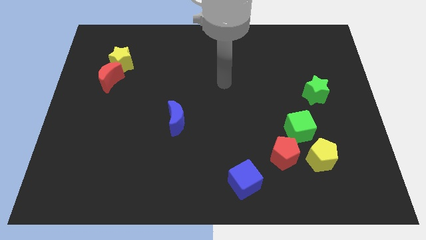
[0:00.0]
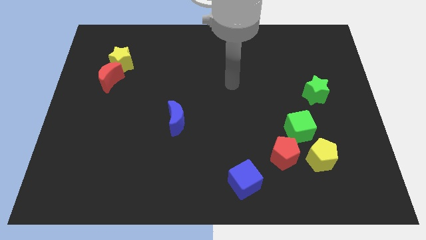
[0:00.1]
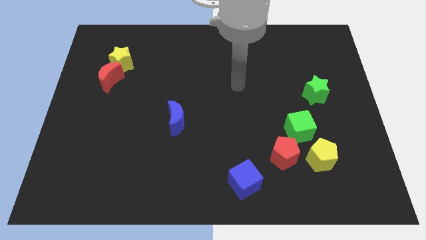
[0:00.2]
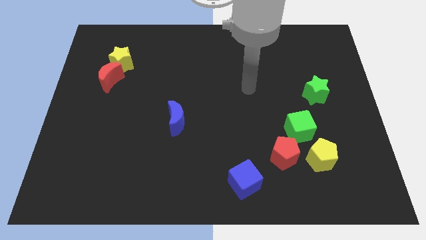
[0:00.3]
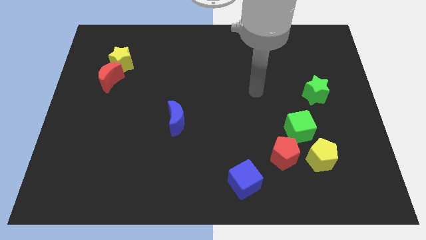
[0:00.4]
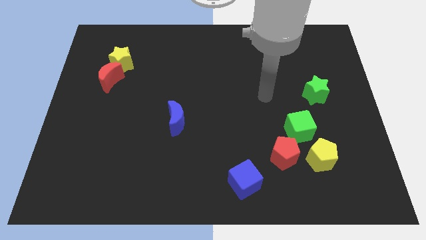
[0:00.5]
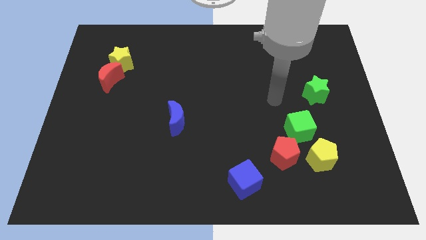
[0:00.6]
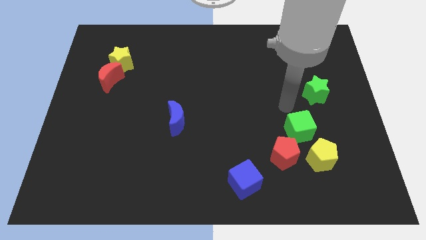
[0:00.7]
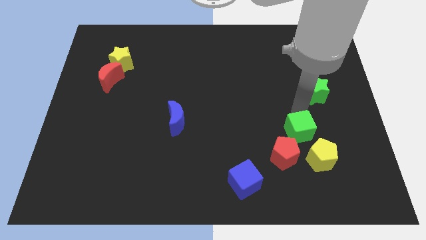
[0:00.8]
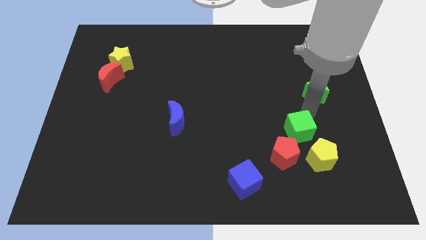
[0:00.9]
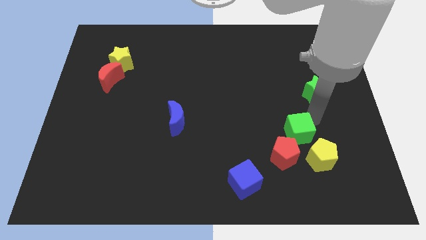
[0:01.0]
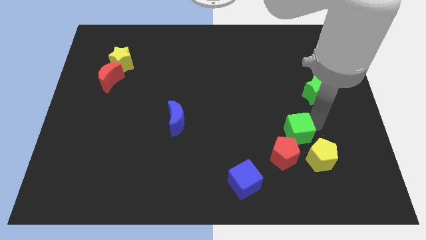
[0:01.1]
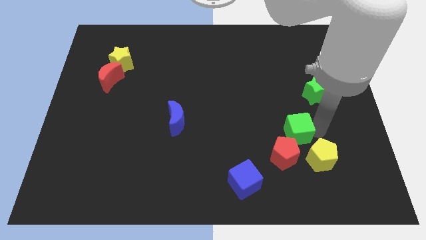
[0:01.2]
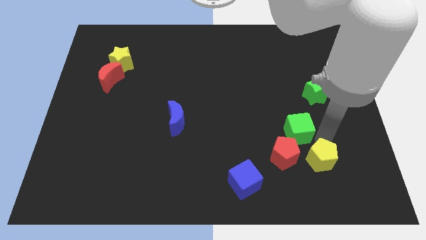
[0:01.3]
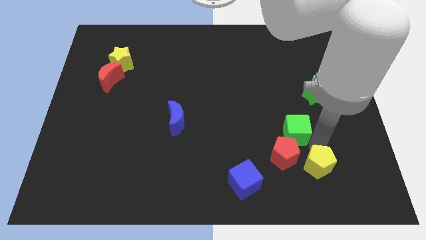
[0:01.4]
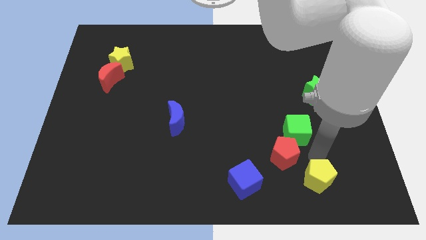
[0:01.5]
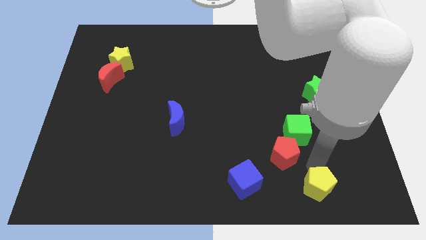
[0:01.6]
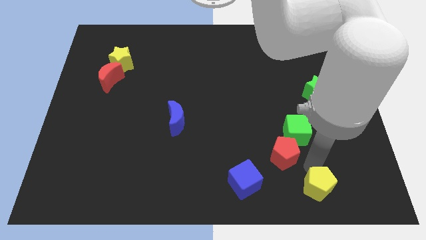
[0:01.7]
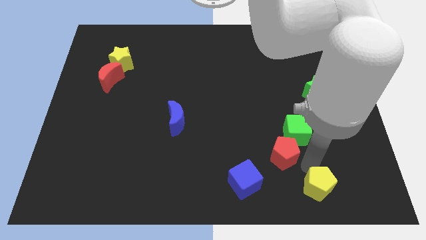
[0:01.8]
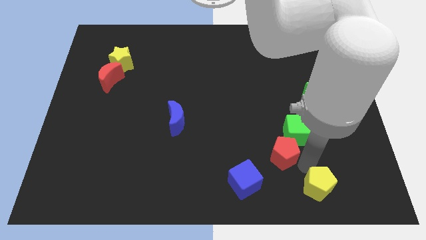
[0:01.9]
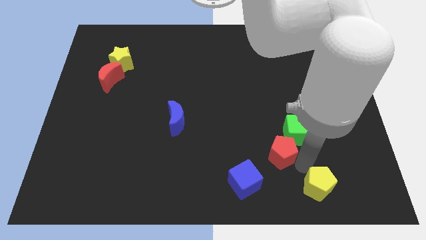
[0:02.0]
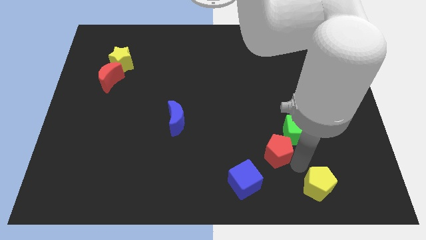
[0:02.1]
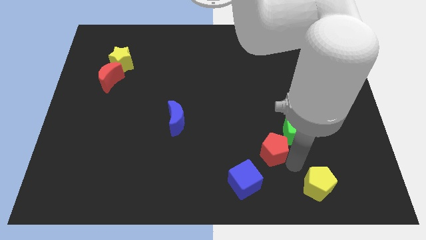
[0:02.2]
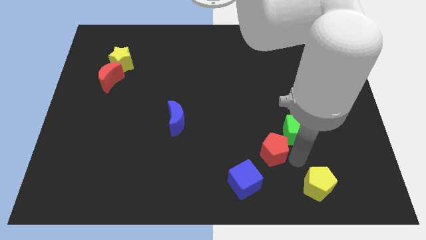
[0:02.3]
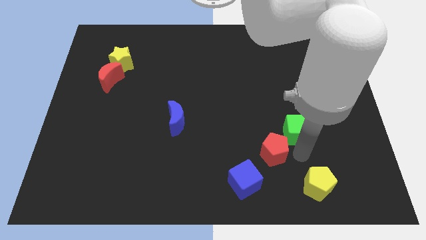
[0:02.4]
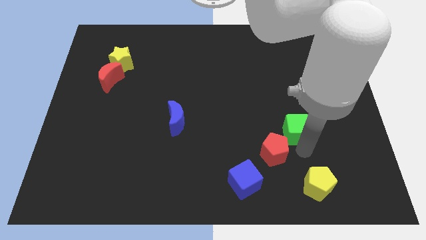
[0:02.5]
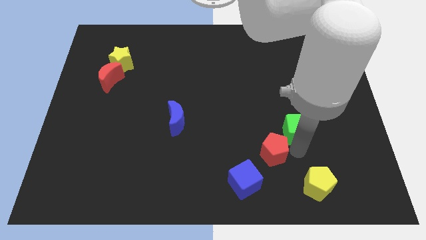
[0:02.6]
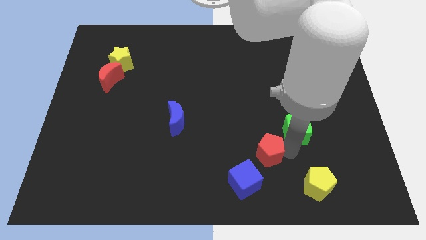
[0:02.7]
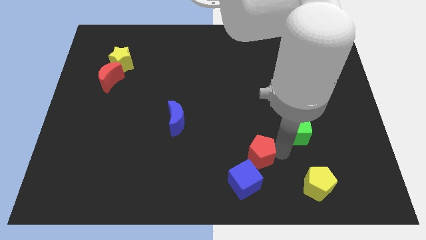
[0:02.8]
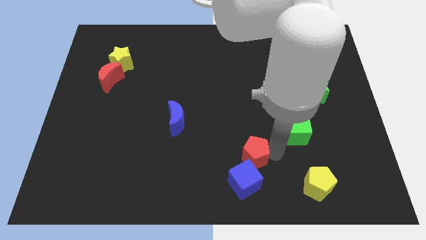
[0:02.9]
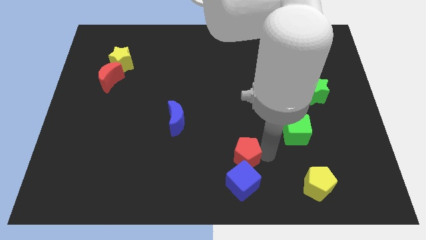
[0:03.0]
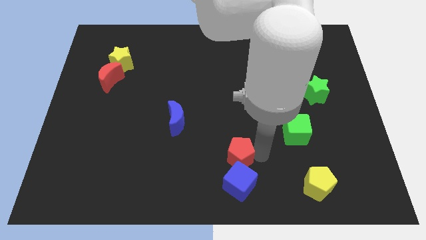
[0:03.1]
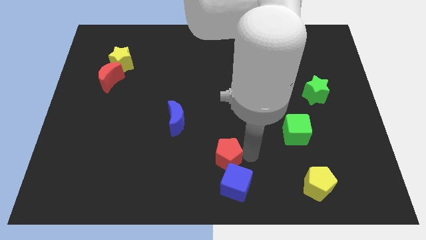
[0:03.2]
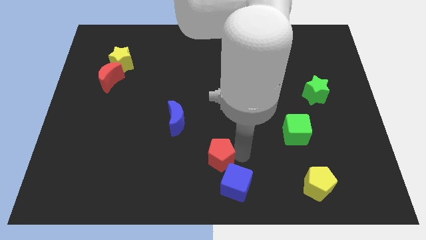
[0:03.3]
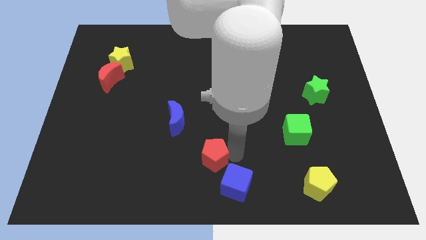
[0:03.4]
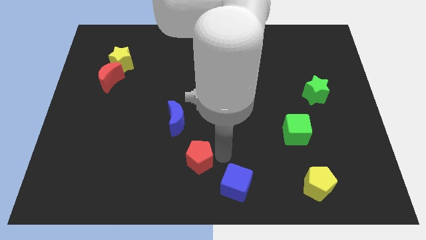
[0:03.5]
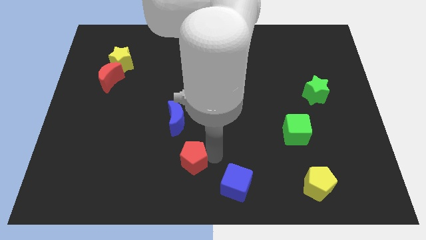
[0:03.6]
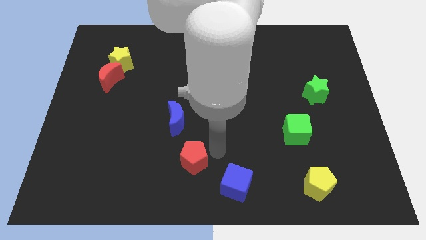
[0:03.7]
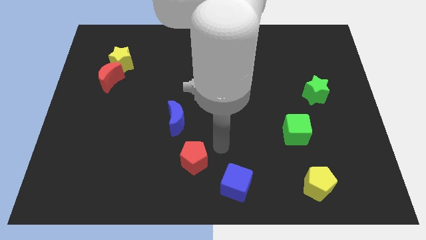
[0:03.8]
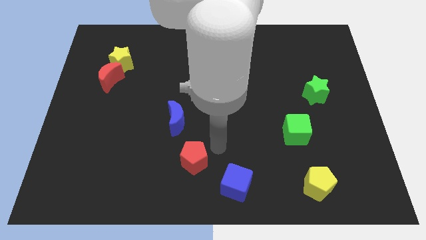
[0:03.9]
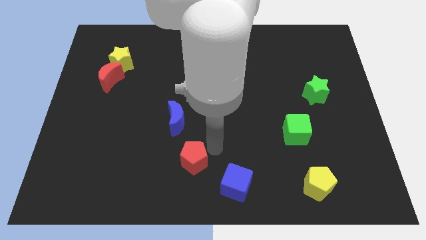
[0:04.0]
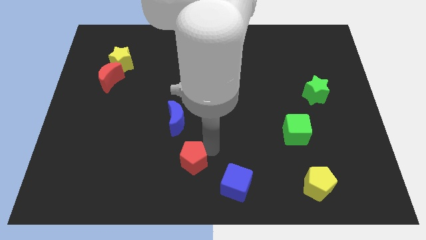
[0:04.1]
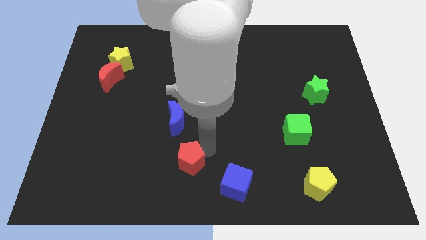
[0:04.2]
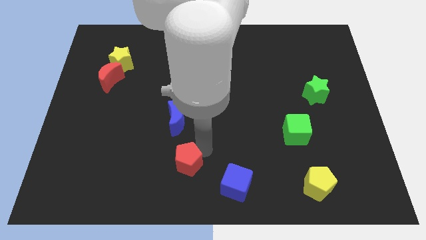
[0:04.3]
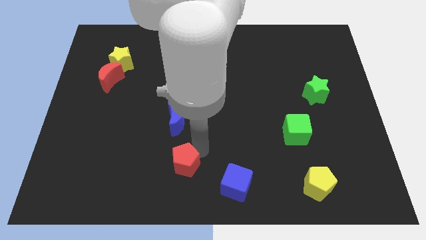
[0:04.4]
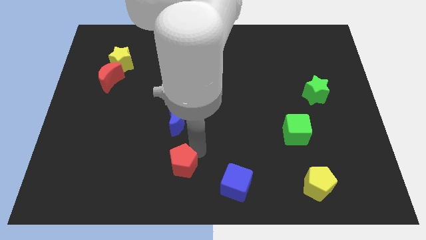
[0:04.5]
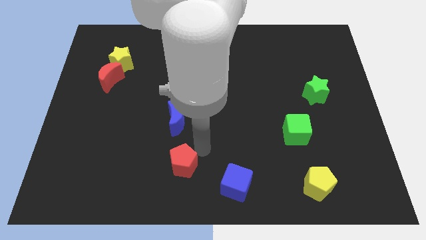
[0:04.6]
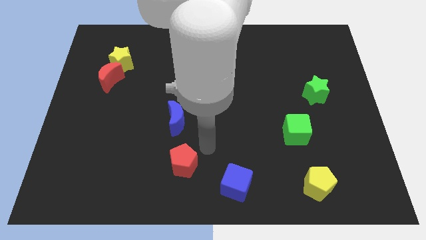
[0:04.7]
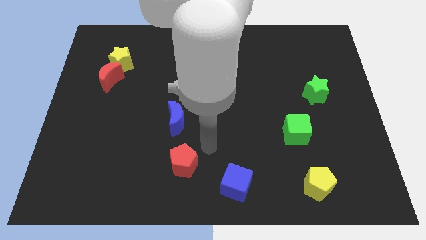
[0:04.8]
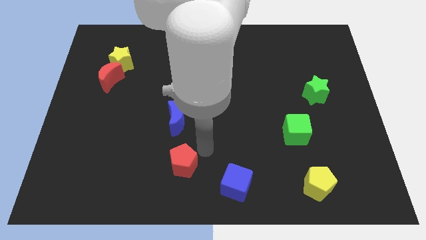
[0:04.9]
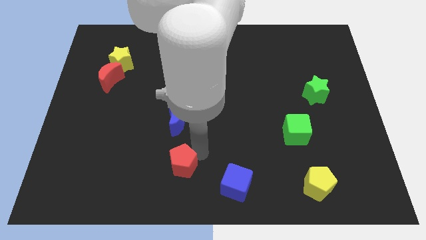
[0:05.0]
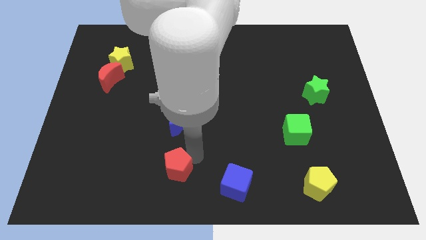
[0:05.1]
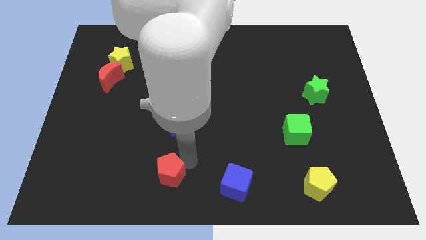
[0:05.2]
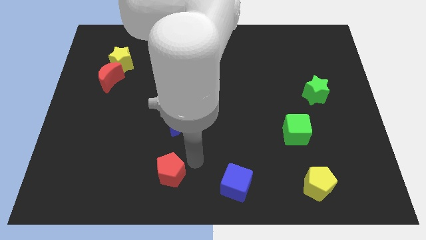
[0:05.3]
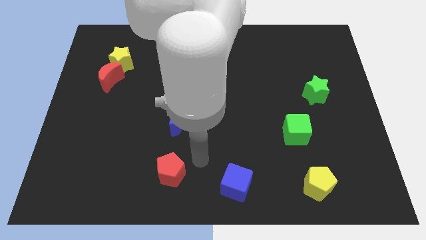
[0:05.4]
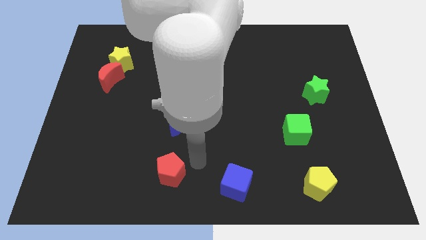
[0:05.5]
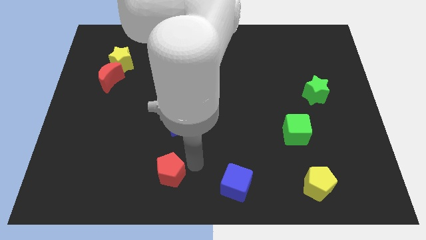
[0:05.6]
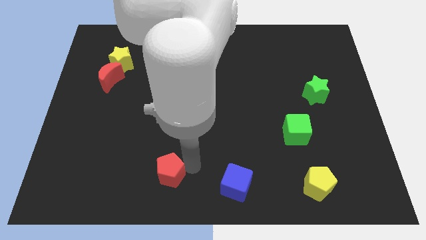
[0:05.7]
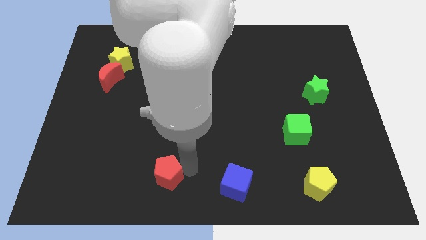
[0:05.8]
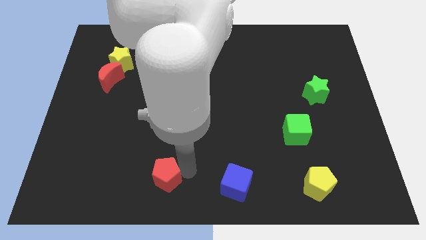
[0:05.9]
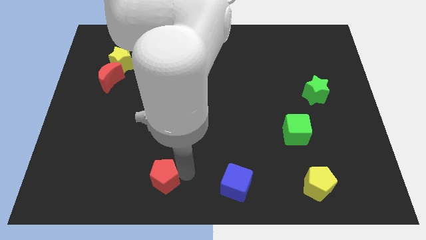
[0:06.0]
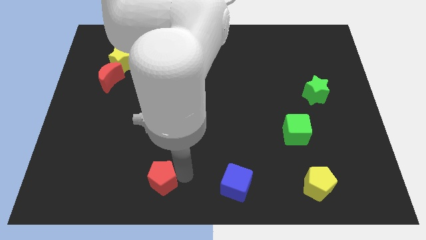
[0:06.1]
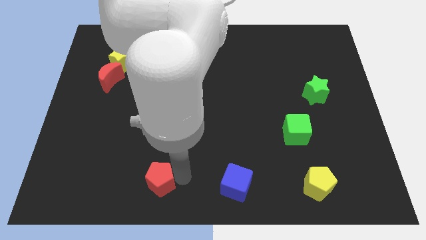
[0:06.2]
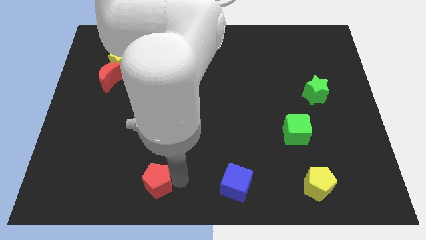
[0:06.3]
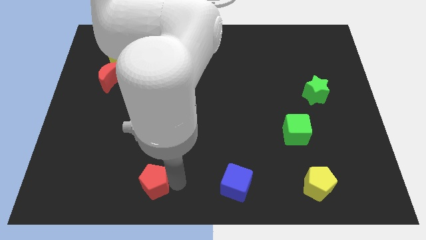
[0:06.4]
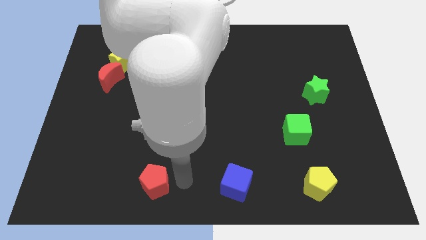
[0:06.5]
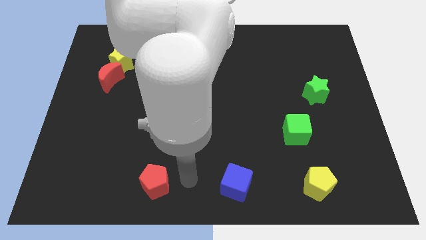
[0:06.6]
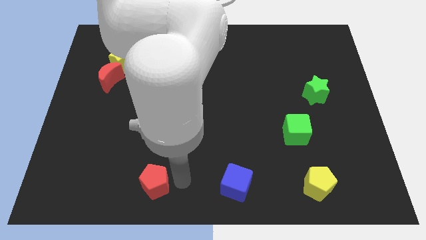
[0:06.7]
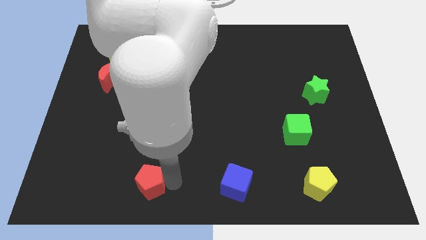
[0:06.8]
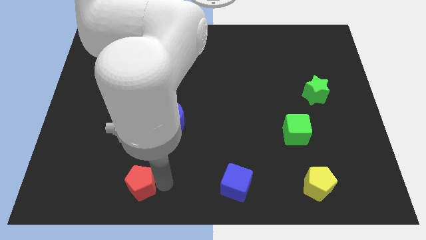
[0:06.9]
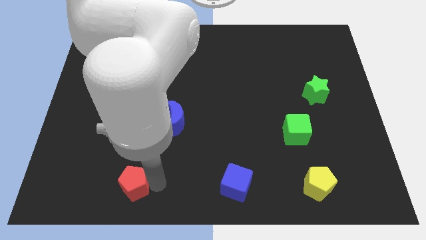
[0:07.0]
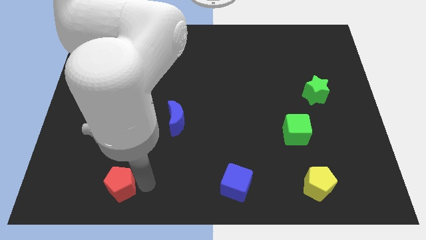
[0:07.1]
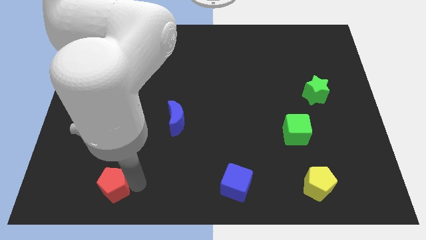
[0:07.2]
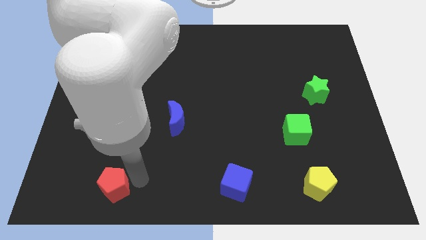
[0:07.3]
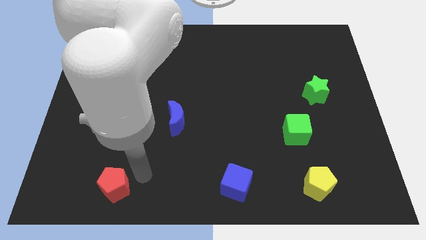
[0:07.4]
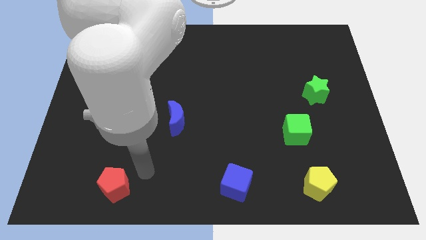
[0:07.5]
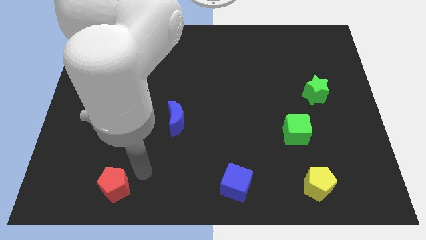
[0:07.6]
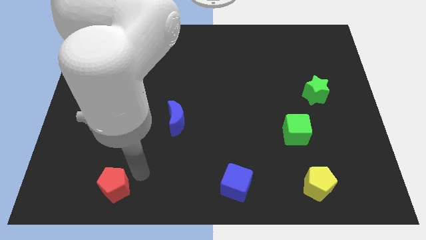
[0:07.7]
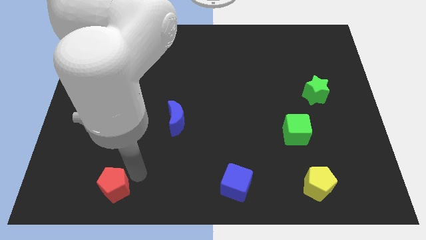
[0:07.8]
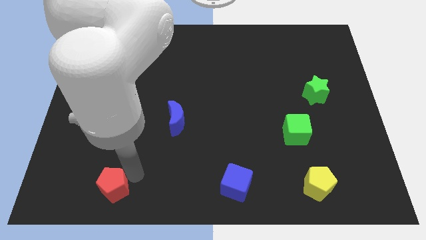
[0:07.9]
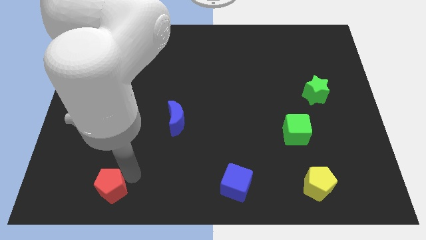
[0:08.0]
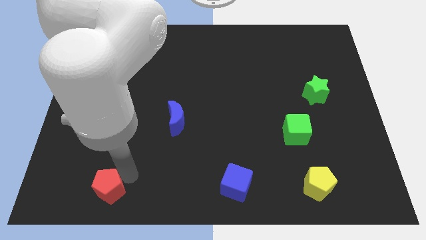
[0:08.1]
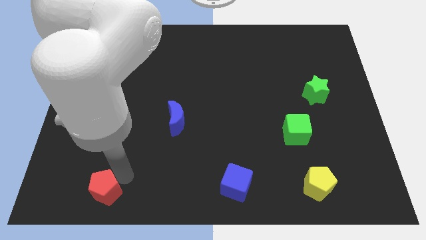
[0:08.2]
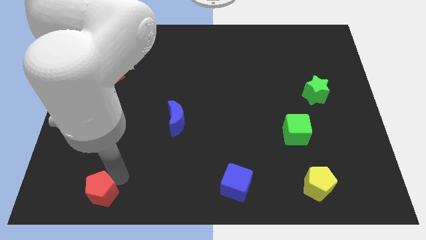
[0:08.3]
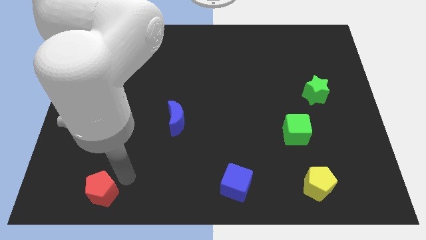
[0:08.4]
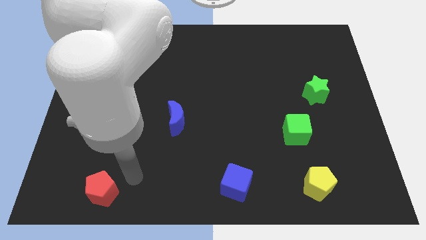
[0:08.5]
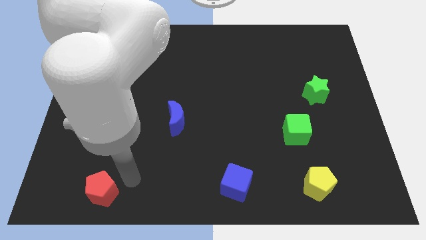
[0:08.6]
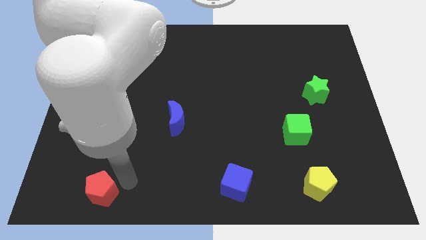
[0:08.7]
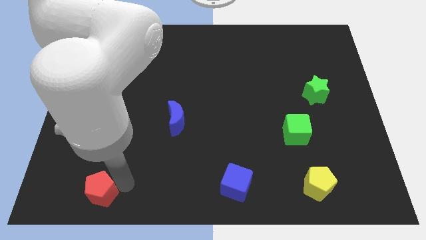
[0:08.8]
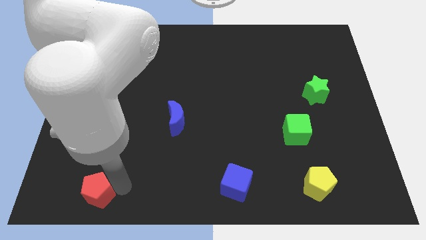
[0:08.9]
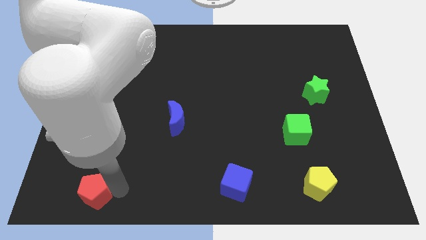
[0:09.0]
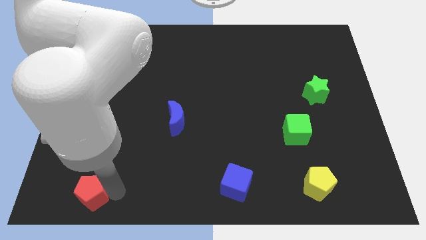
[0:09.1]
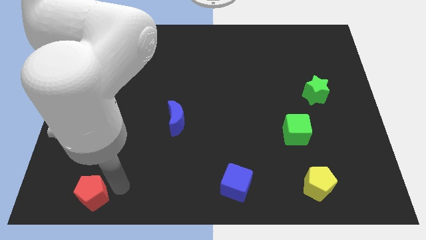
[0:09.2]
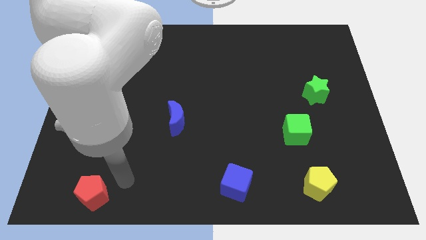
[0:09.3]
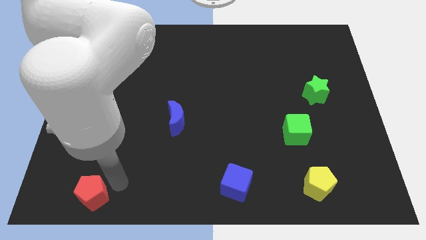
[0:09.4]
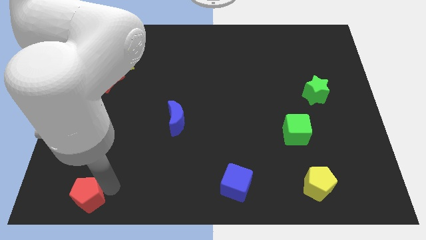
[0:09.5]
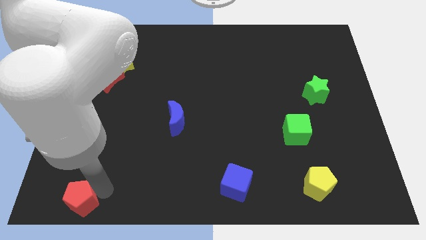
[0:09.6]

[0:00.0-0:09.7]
slide the red pentagon to the lower left corner
